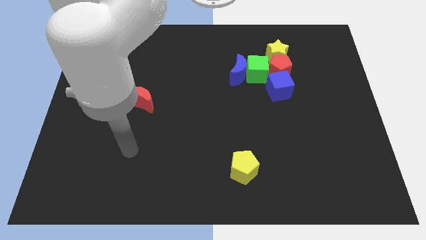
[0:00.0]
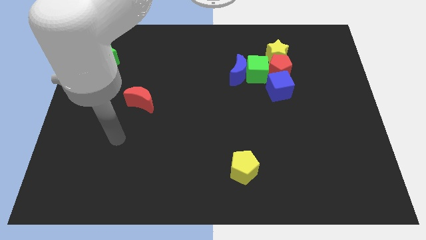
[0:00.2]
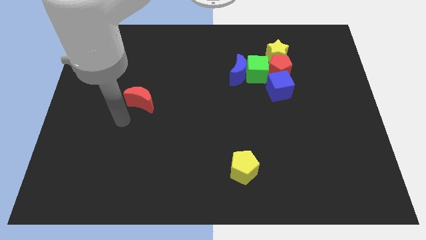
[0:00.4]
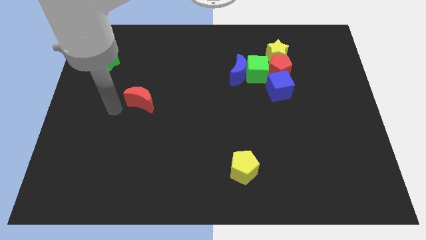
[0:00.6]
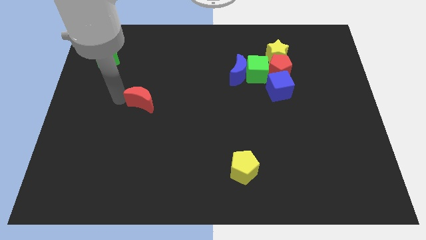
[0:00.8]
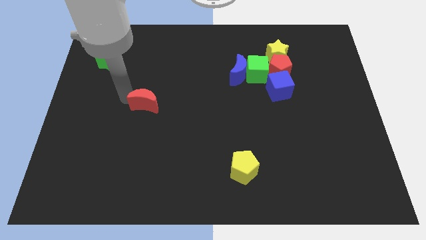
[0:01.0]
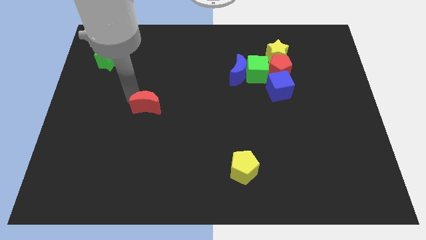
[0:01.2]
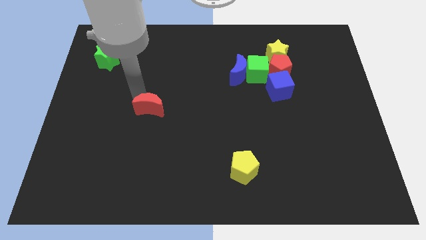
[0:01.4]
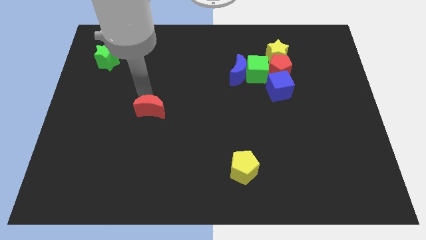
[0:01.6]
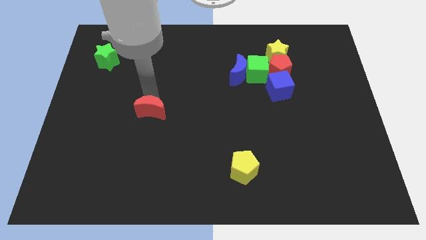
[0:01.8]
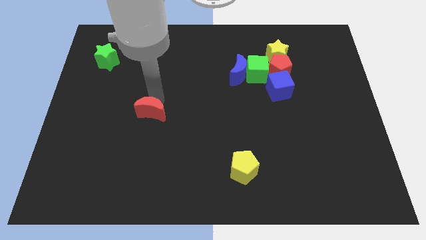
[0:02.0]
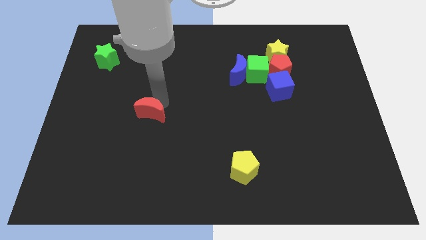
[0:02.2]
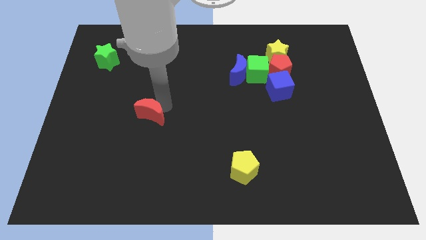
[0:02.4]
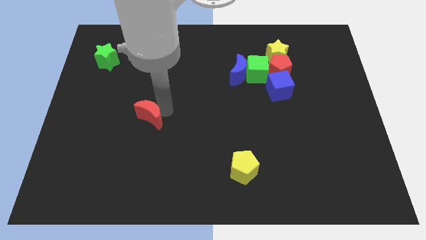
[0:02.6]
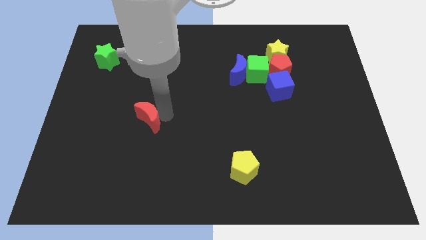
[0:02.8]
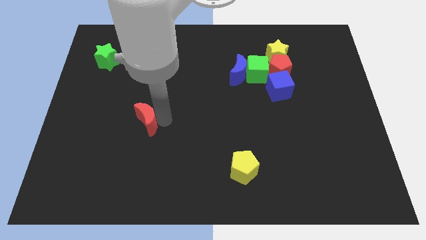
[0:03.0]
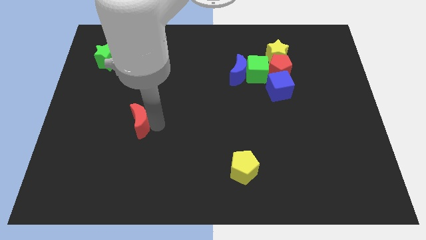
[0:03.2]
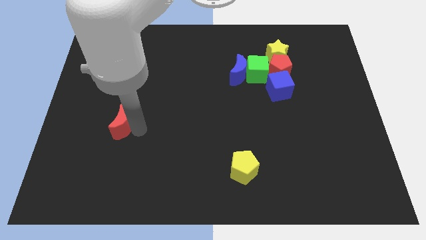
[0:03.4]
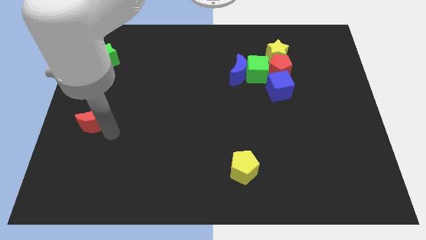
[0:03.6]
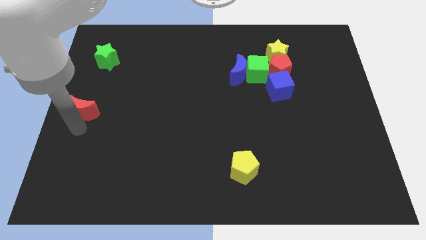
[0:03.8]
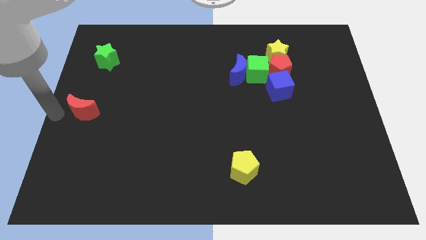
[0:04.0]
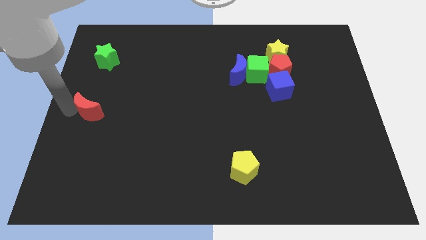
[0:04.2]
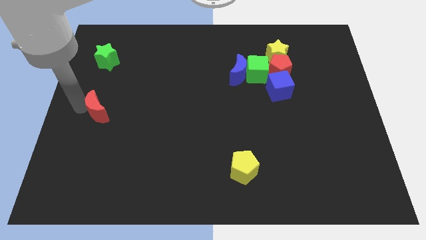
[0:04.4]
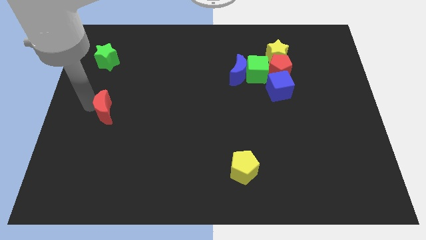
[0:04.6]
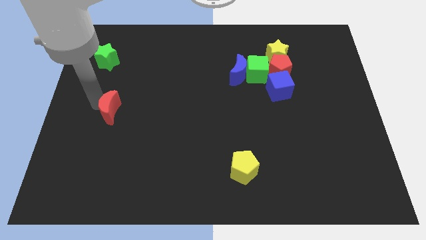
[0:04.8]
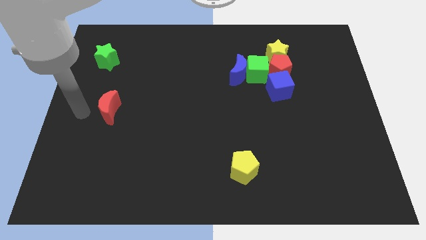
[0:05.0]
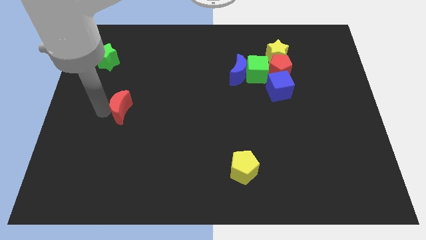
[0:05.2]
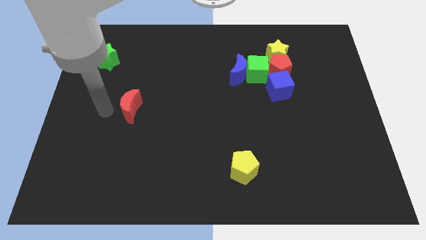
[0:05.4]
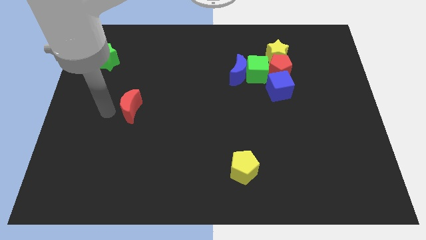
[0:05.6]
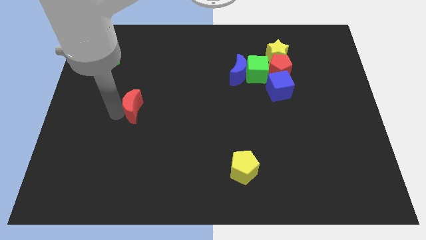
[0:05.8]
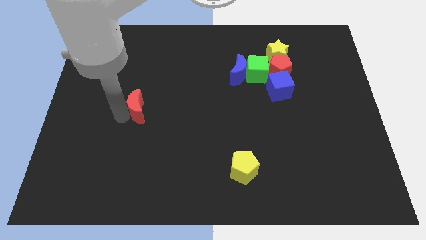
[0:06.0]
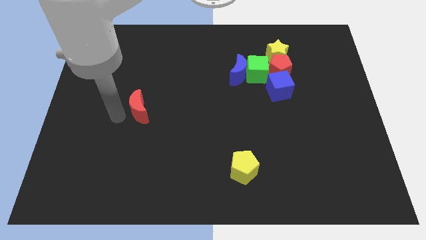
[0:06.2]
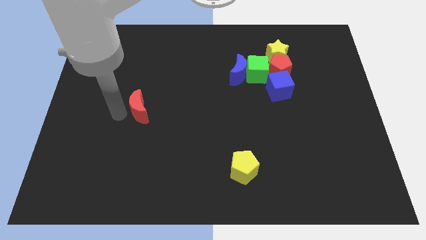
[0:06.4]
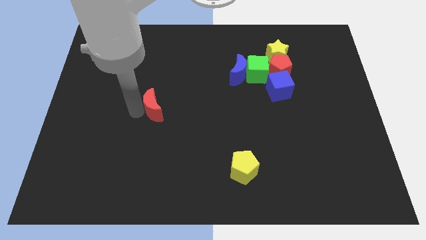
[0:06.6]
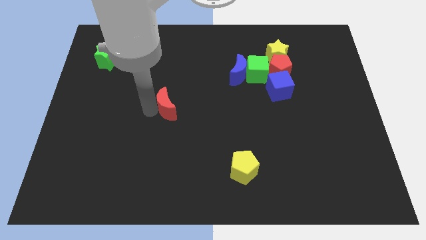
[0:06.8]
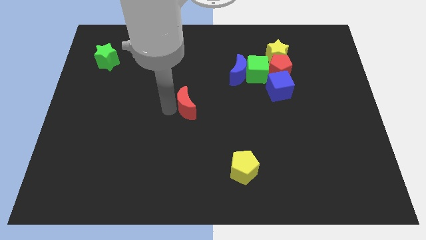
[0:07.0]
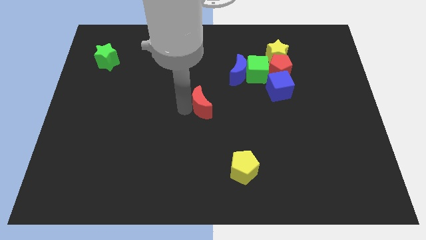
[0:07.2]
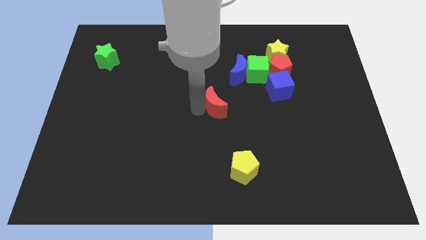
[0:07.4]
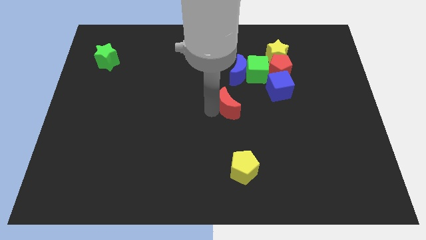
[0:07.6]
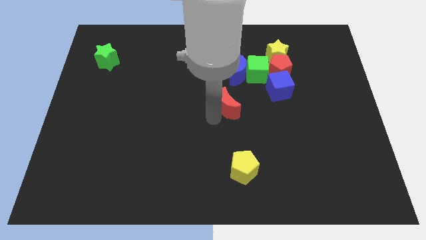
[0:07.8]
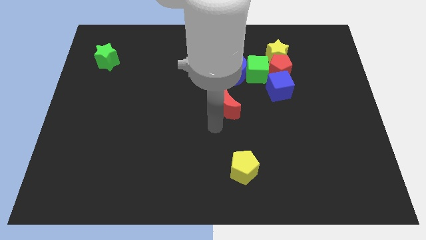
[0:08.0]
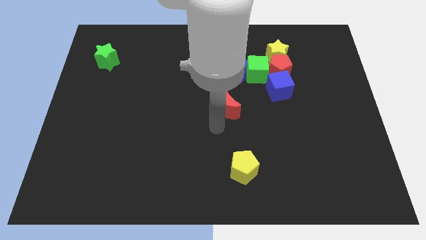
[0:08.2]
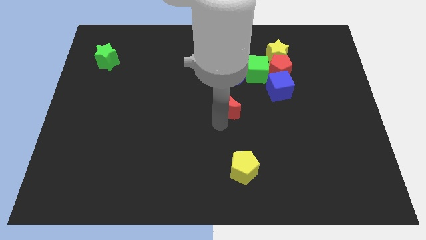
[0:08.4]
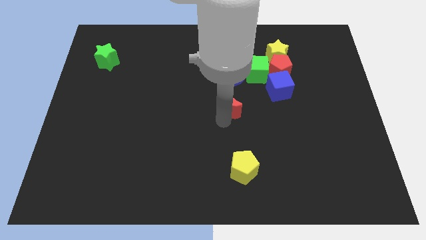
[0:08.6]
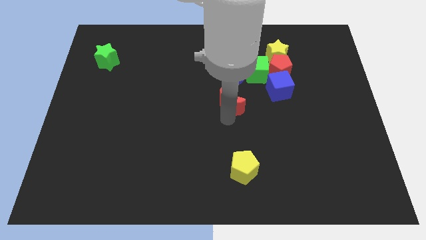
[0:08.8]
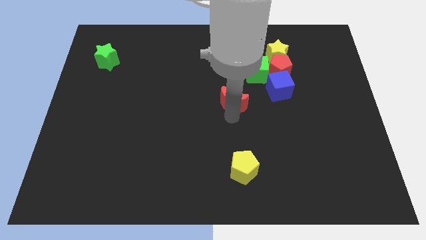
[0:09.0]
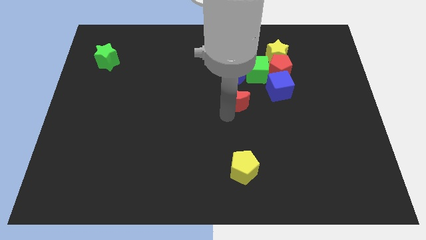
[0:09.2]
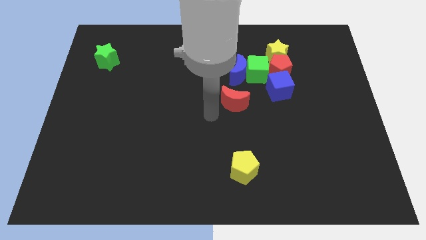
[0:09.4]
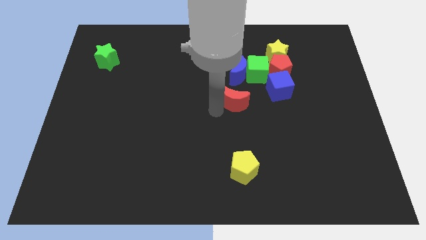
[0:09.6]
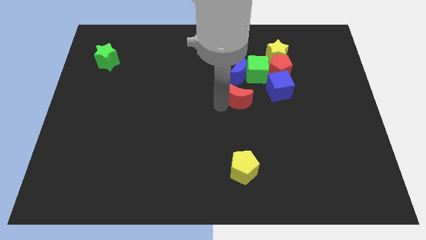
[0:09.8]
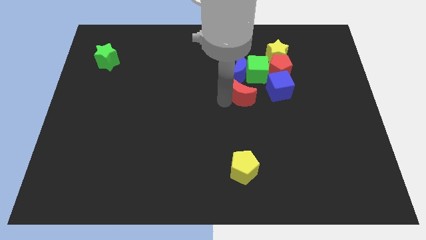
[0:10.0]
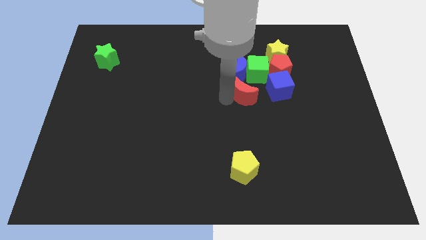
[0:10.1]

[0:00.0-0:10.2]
move the red moon to the bottom right of the blue moon

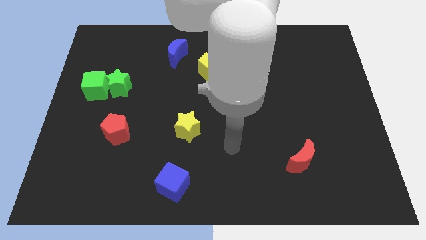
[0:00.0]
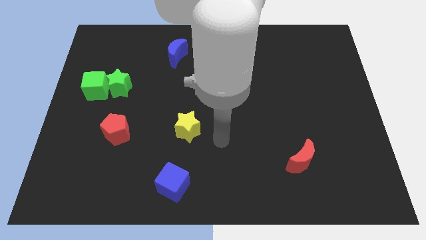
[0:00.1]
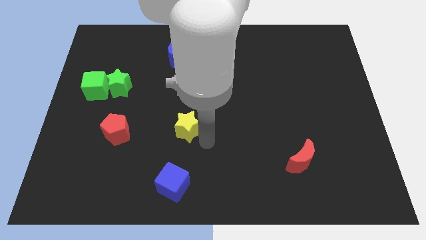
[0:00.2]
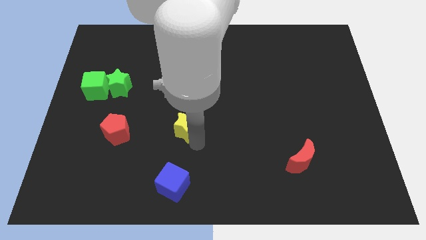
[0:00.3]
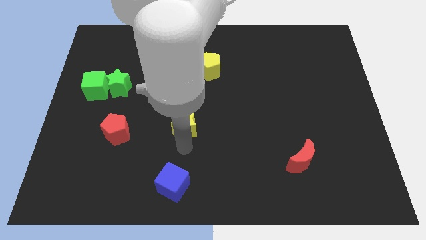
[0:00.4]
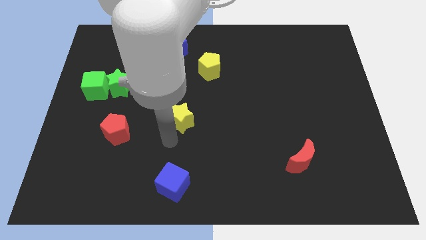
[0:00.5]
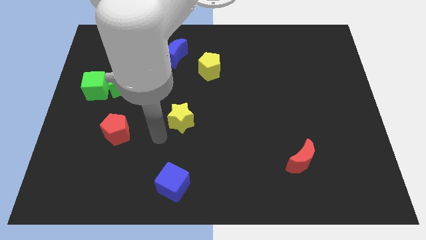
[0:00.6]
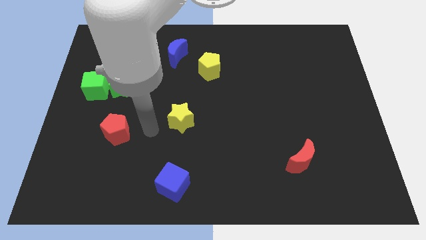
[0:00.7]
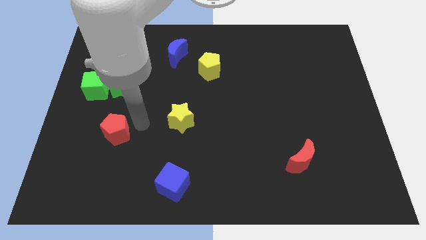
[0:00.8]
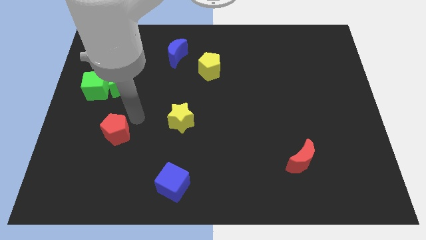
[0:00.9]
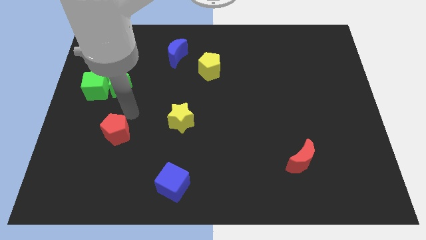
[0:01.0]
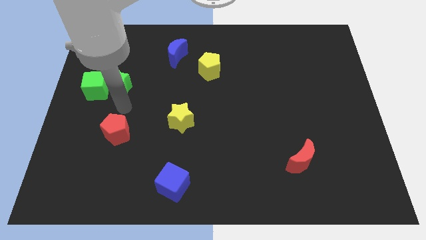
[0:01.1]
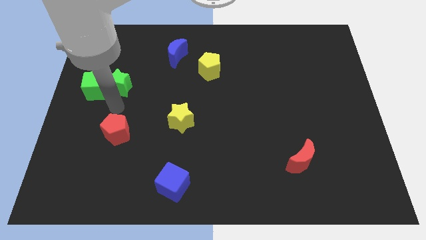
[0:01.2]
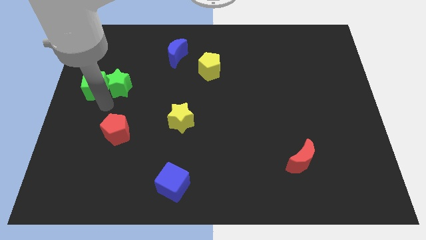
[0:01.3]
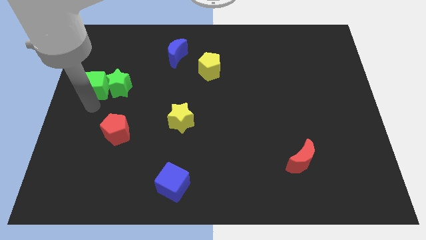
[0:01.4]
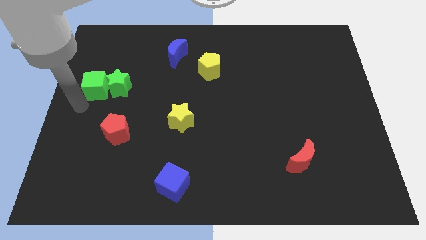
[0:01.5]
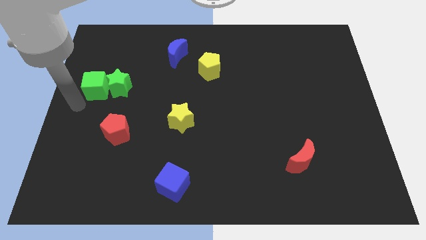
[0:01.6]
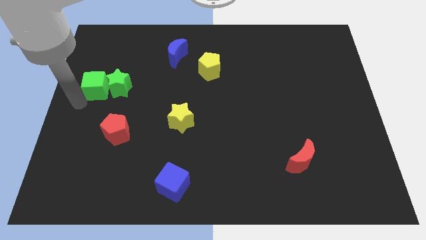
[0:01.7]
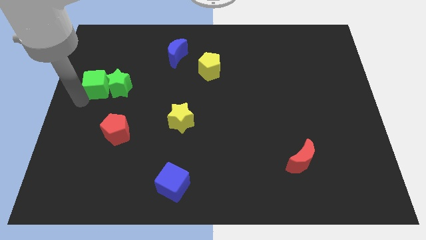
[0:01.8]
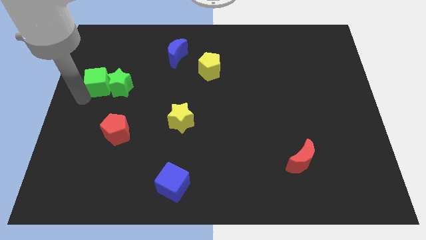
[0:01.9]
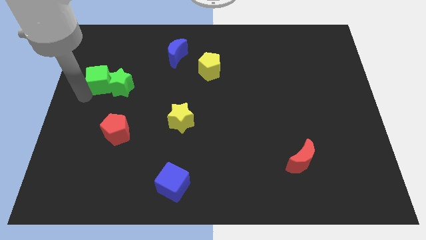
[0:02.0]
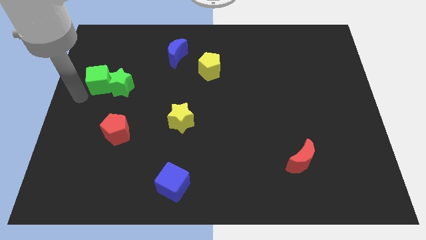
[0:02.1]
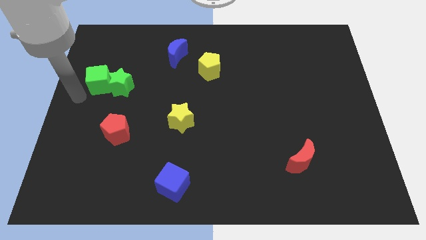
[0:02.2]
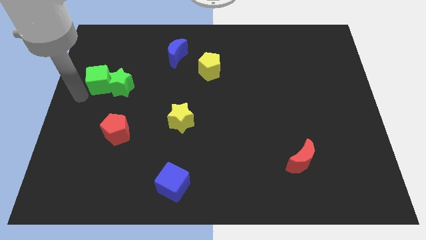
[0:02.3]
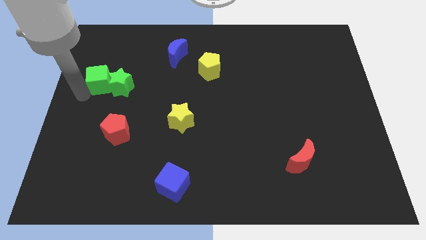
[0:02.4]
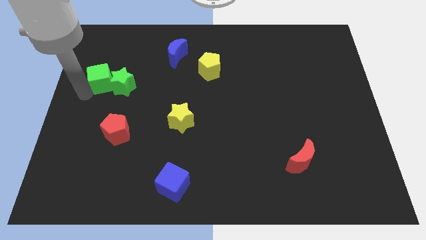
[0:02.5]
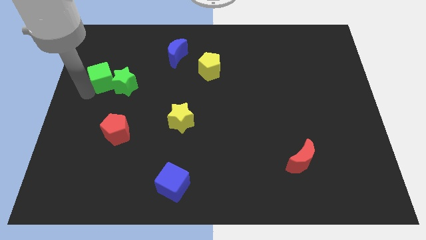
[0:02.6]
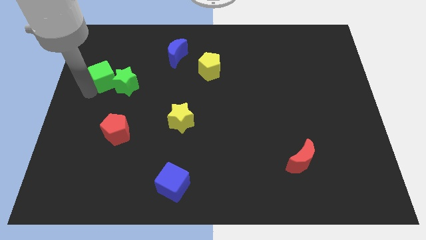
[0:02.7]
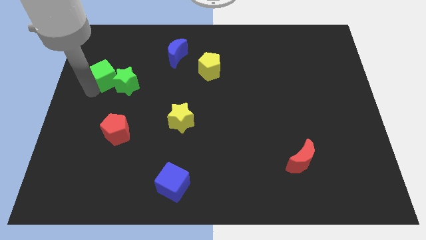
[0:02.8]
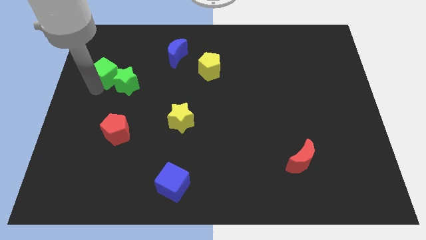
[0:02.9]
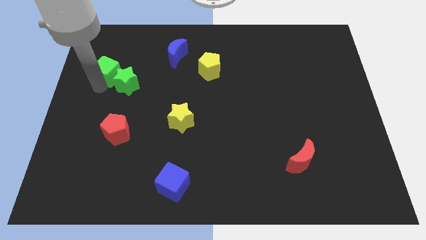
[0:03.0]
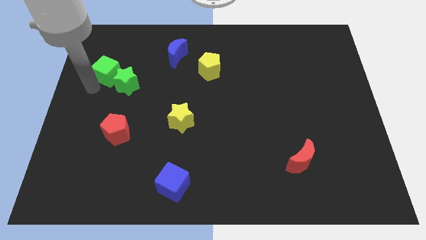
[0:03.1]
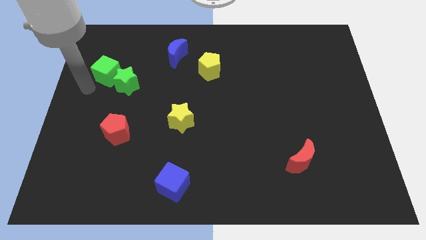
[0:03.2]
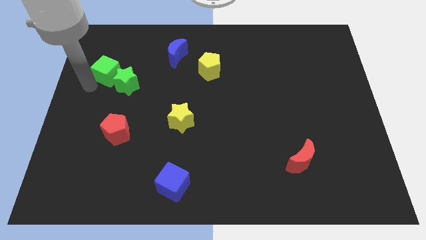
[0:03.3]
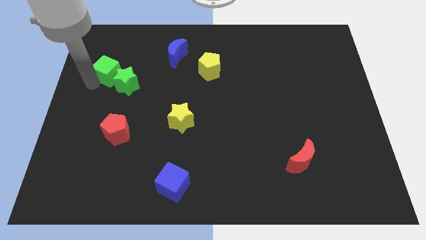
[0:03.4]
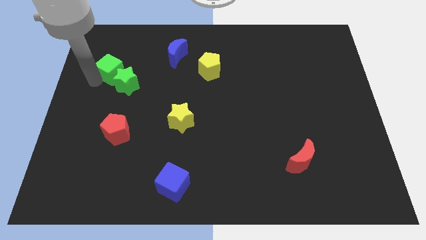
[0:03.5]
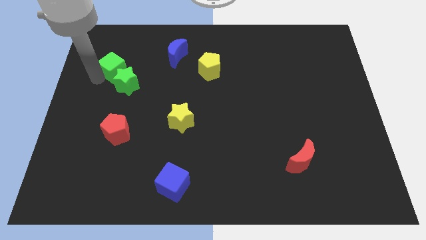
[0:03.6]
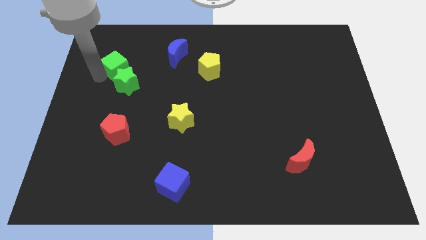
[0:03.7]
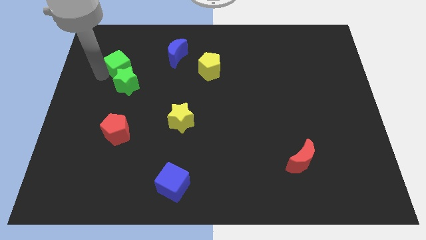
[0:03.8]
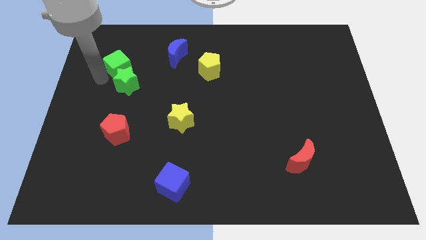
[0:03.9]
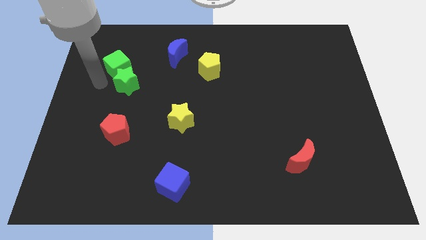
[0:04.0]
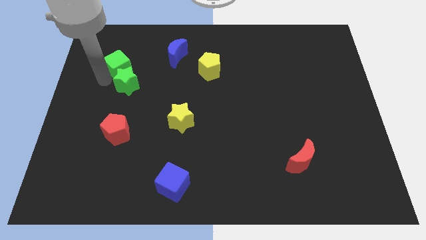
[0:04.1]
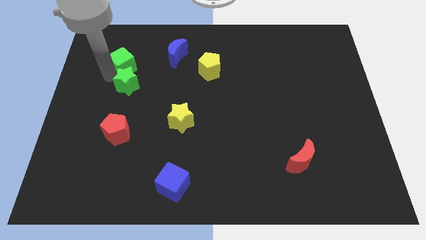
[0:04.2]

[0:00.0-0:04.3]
move the green cube left of the blue moon
